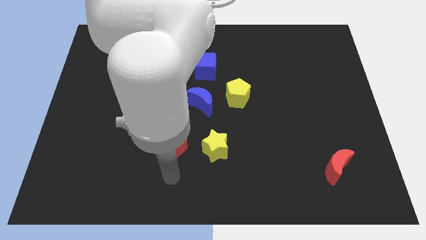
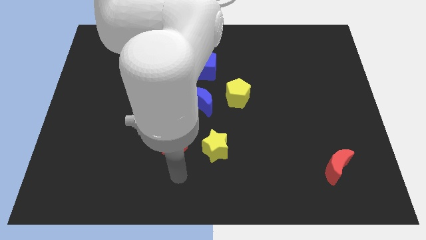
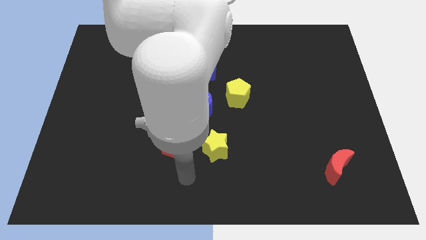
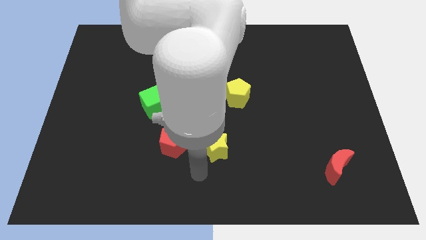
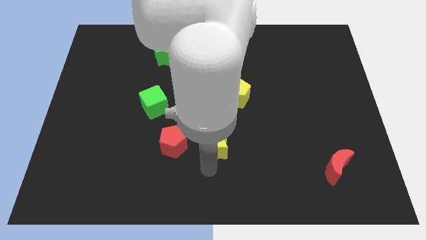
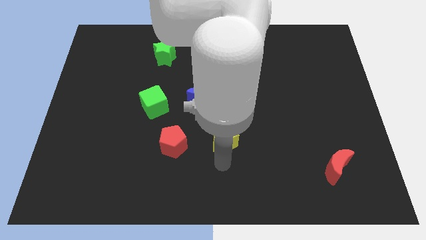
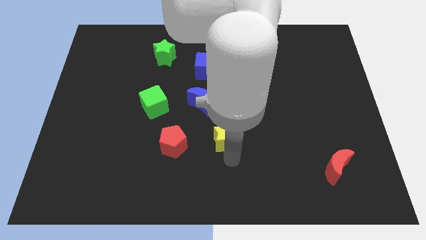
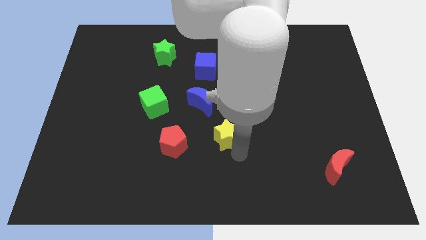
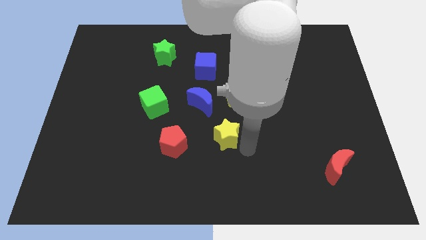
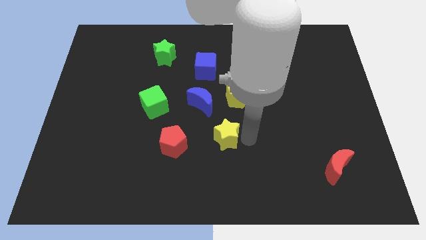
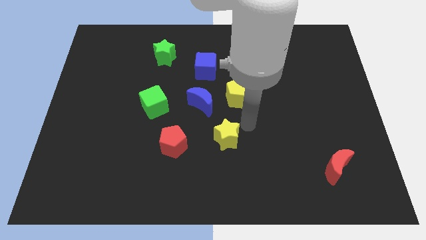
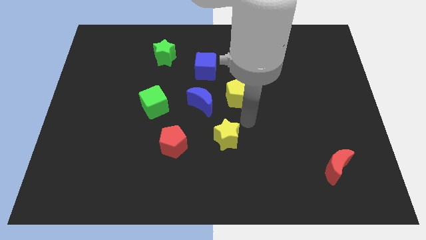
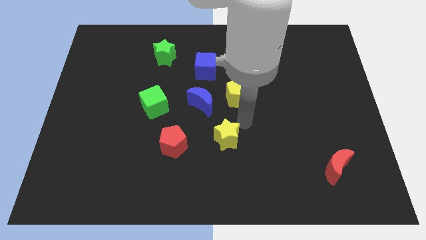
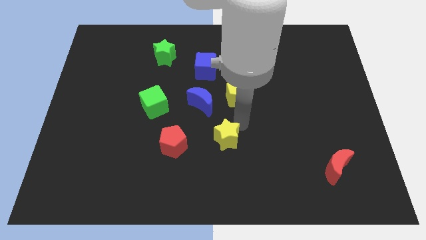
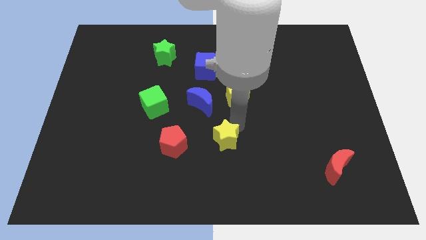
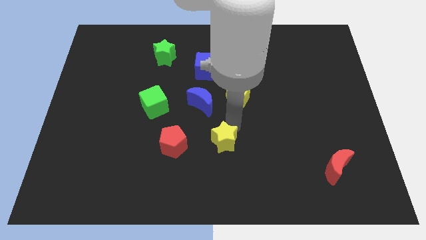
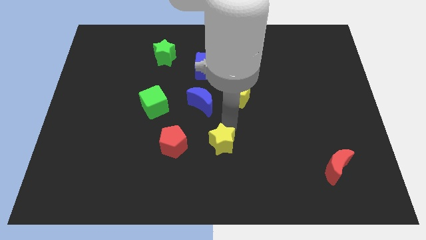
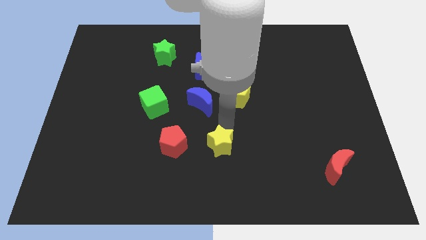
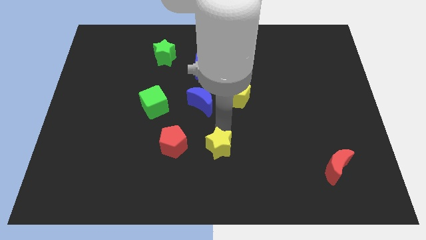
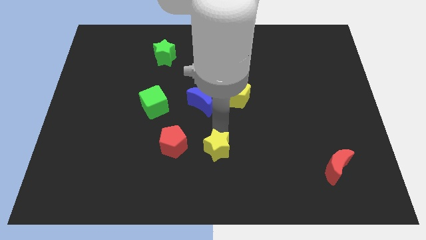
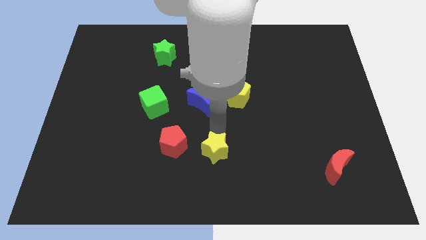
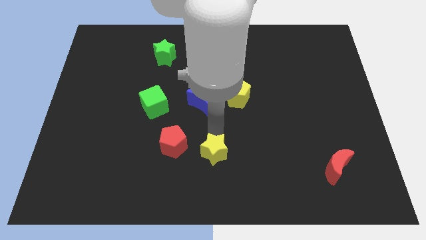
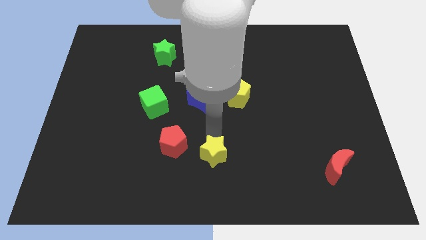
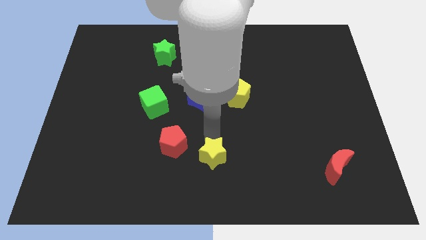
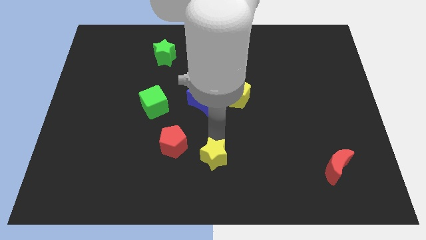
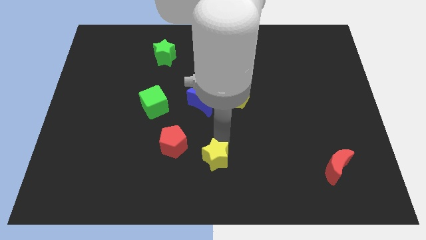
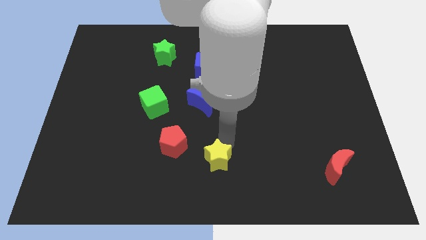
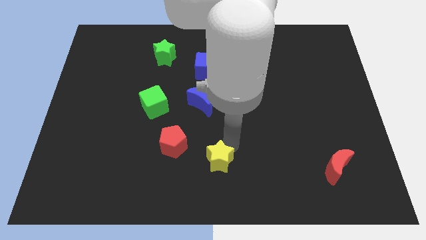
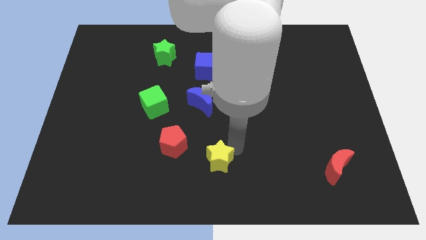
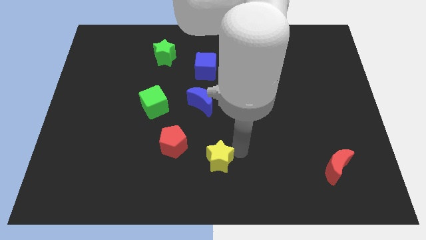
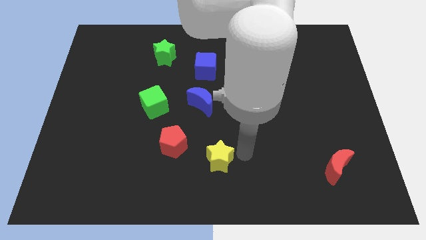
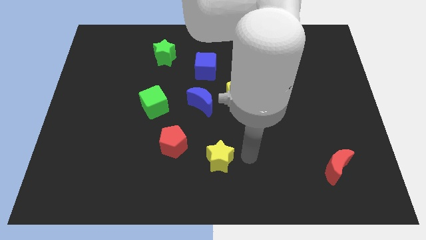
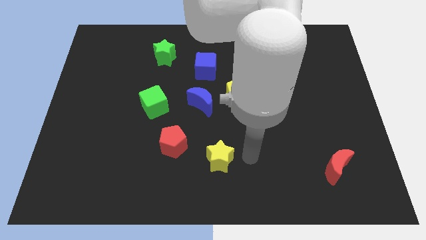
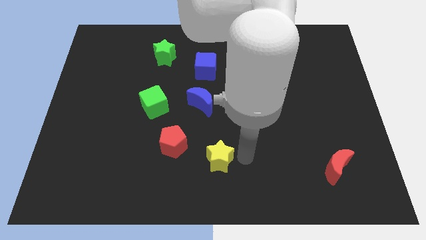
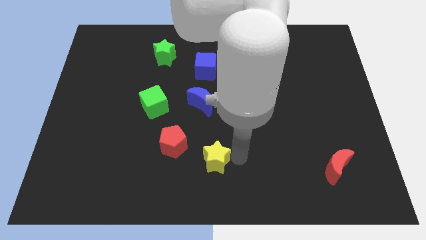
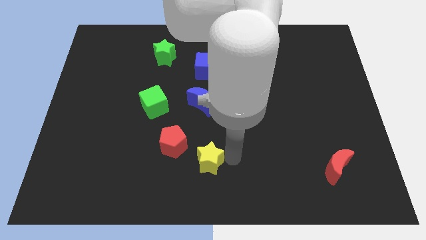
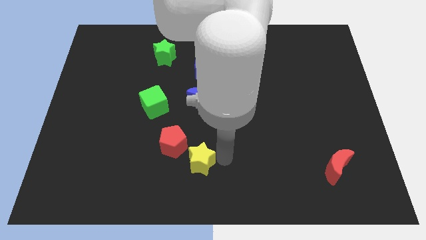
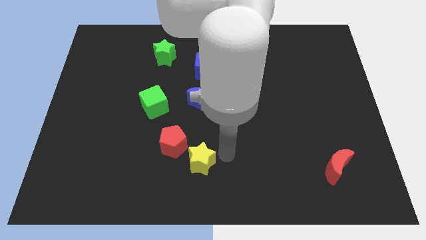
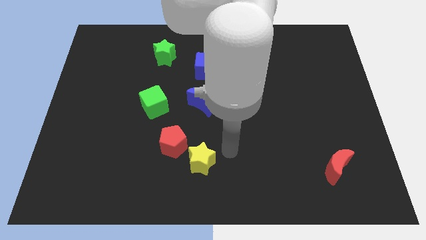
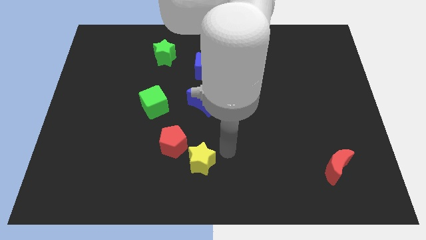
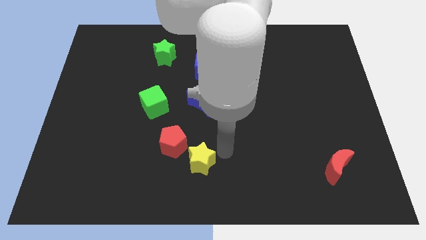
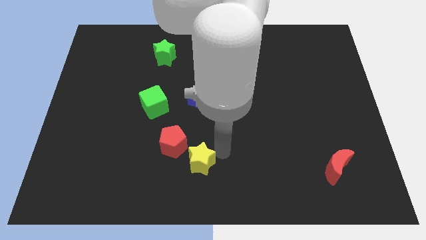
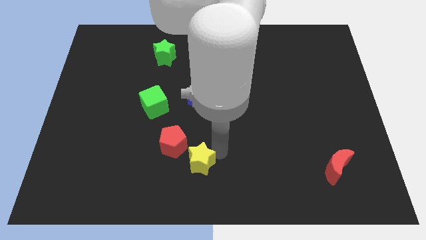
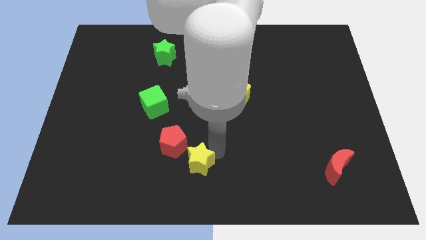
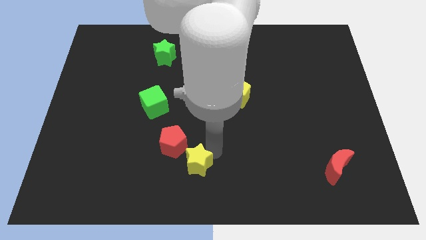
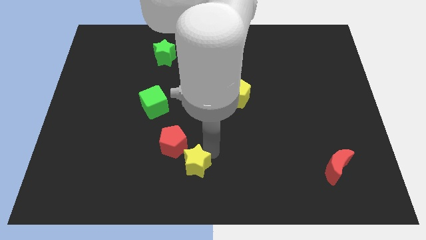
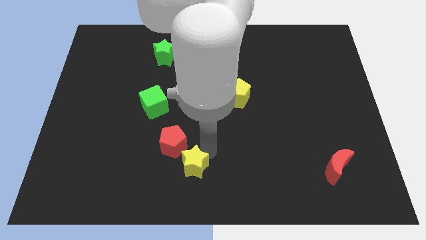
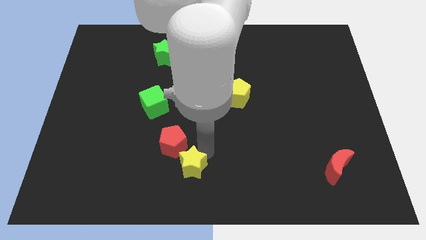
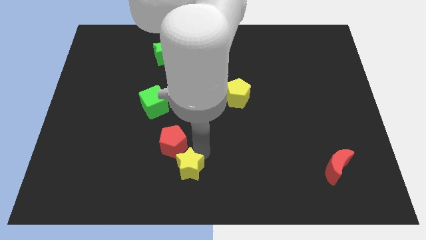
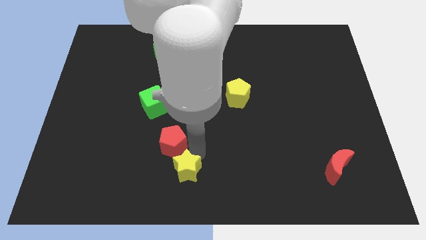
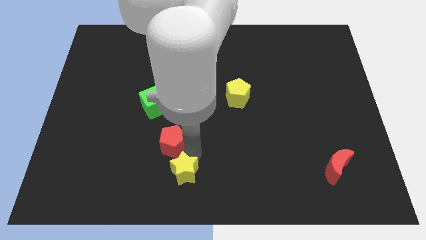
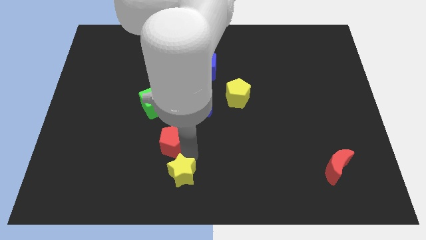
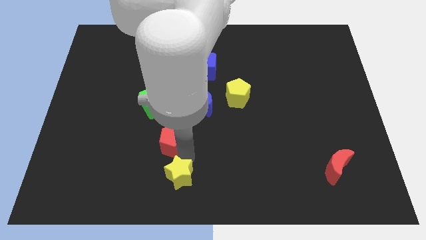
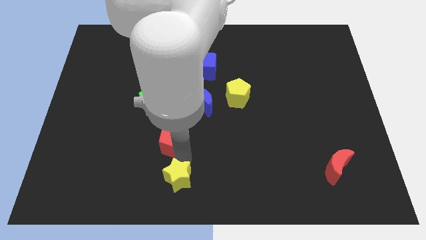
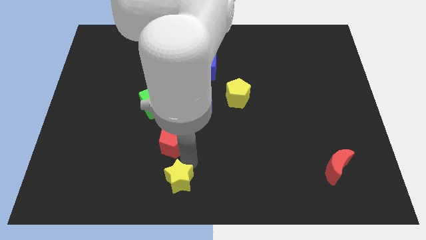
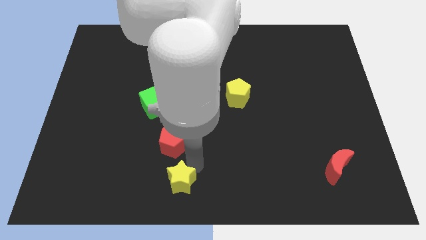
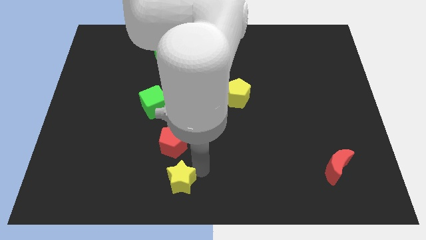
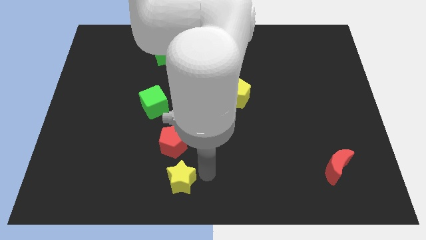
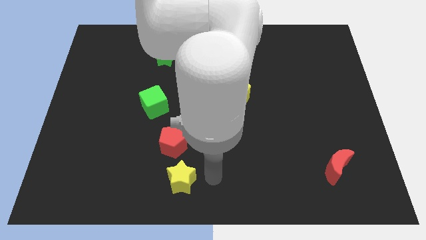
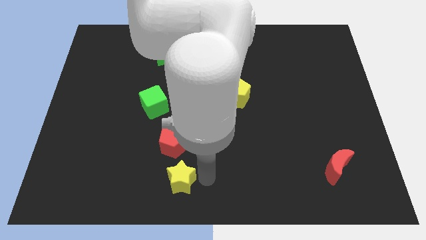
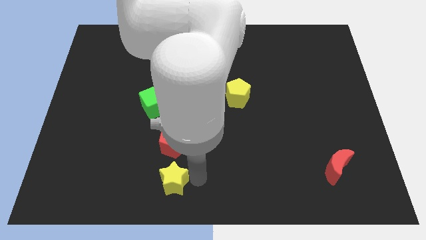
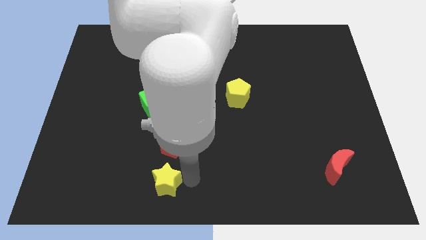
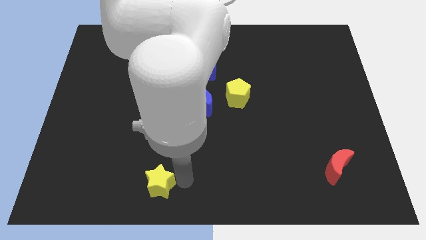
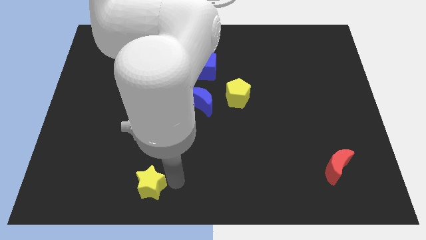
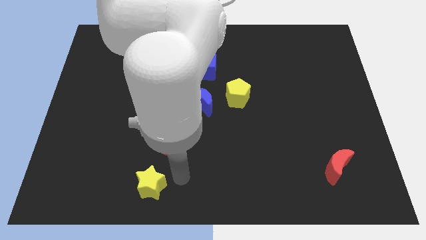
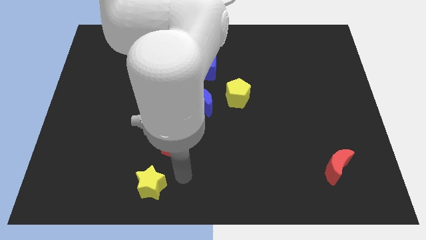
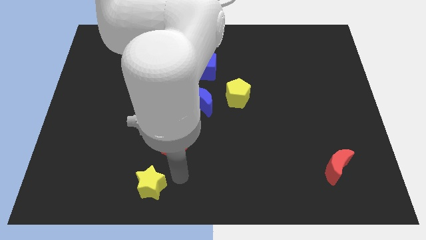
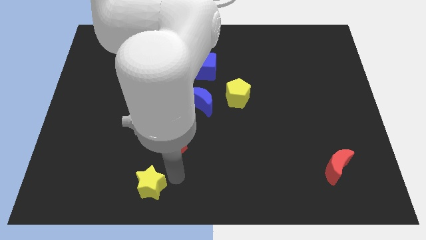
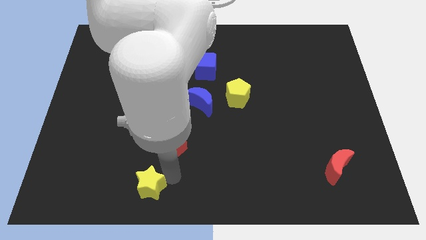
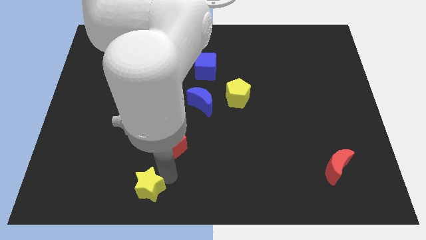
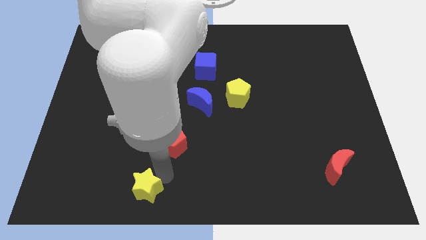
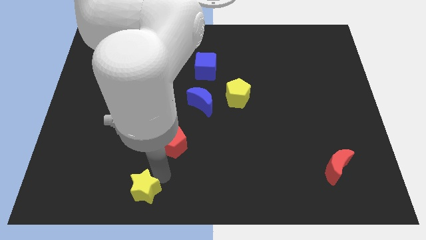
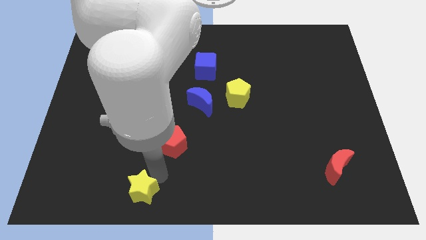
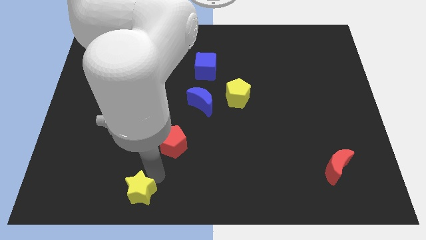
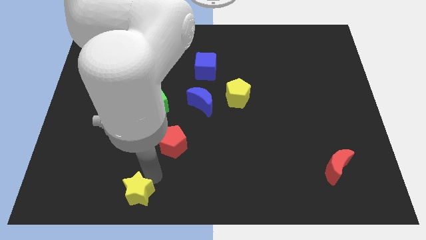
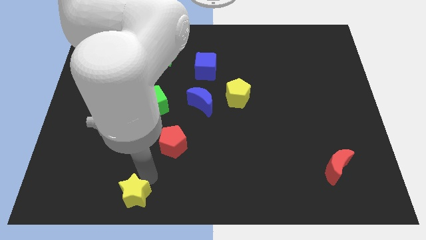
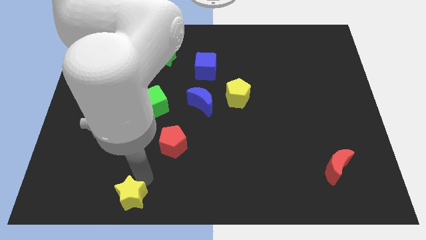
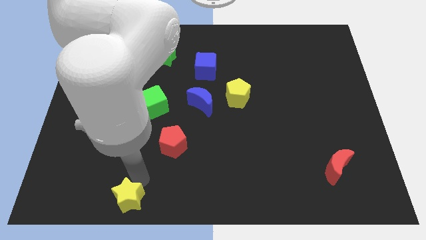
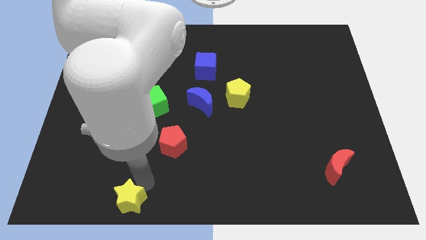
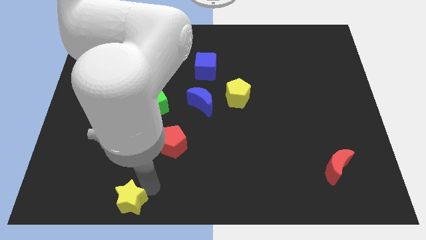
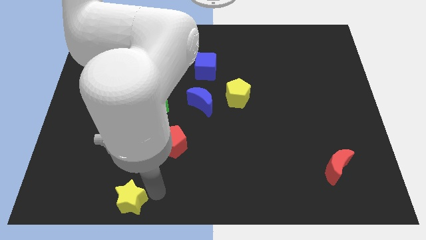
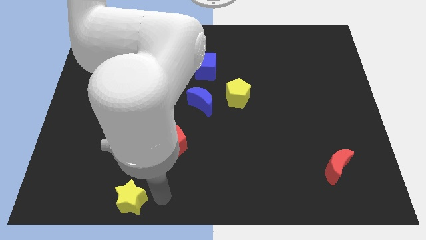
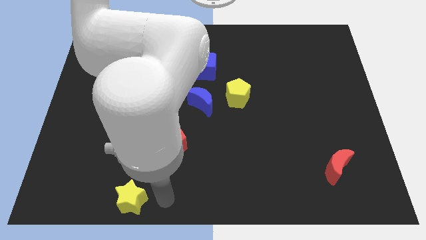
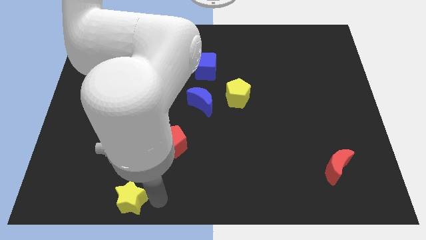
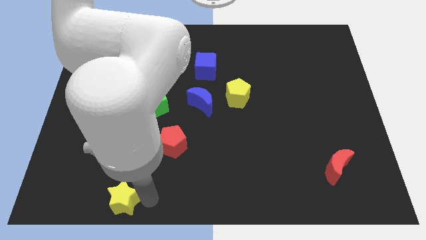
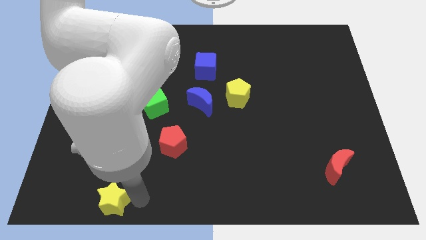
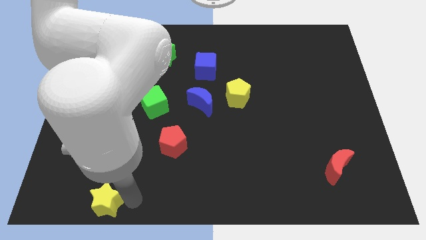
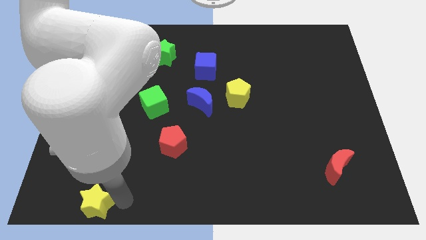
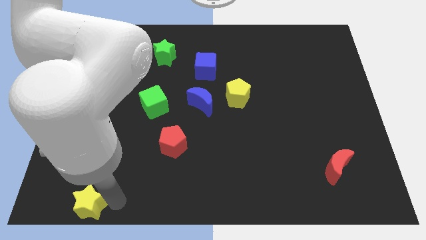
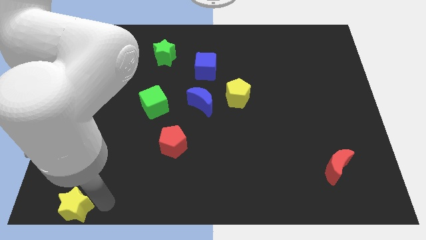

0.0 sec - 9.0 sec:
move the yellow star to the lower left corner
